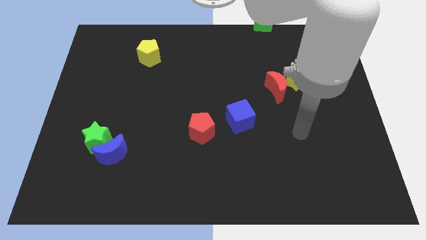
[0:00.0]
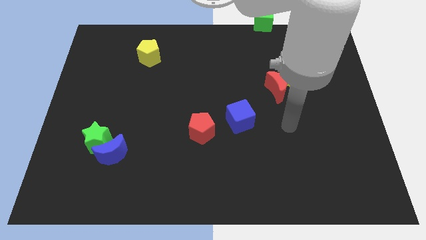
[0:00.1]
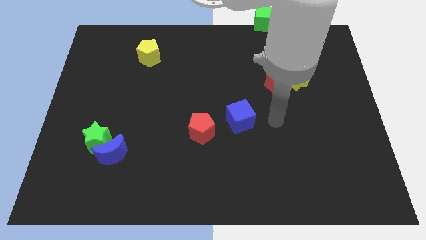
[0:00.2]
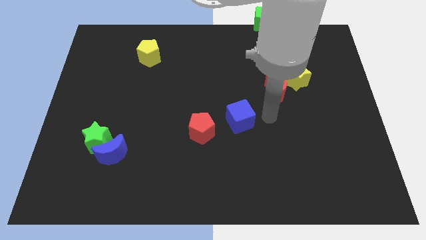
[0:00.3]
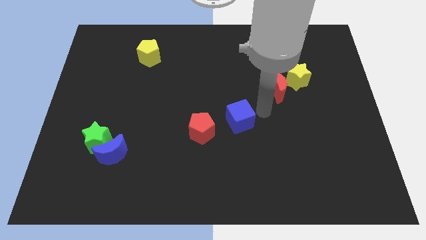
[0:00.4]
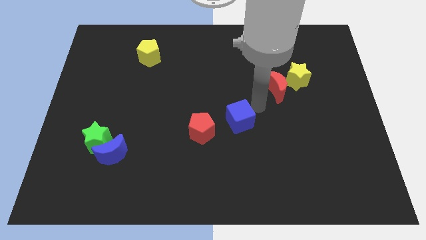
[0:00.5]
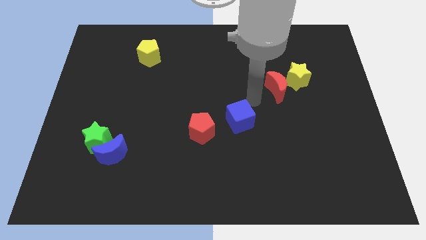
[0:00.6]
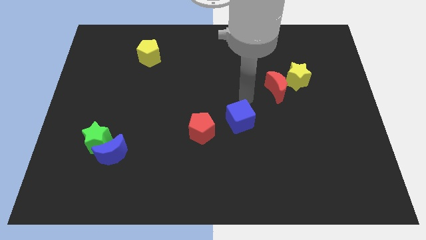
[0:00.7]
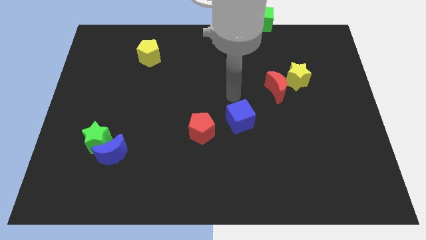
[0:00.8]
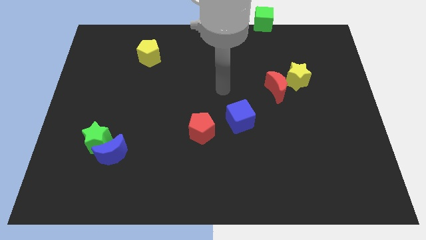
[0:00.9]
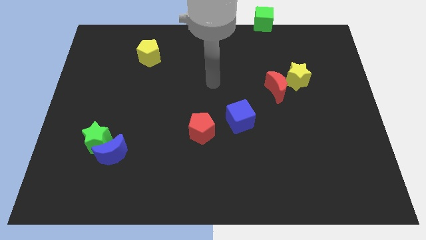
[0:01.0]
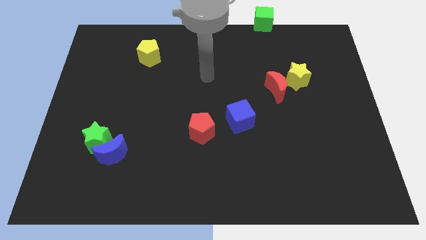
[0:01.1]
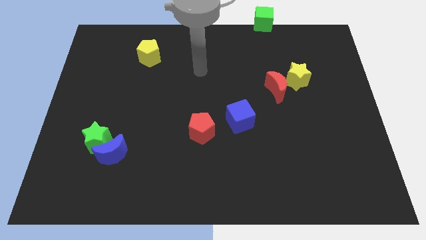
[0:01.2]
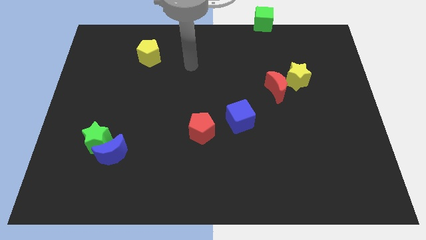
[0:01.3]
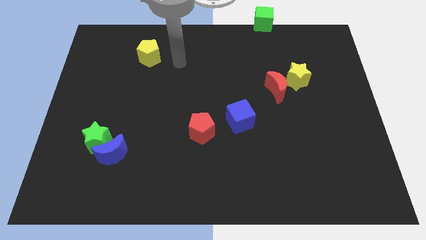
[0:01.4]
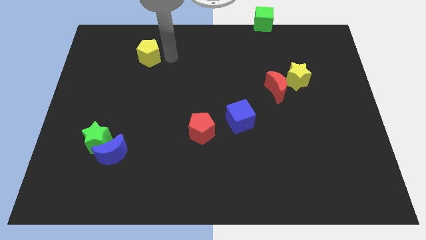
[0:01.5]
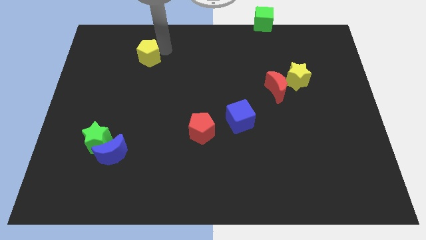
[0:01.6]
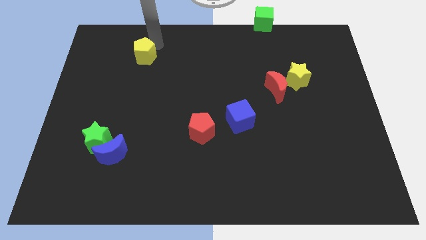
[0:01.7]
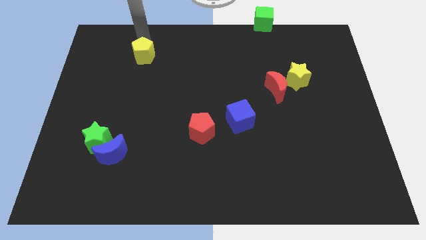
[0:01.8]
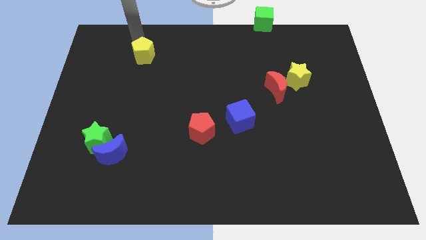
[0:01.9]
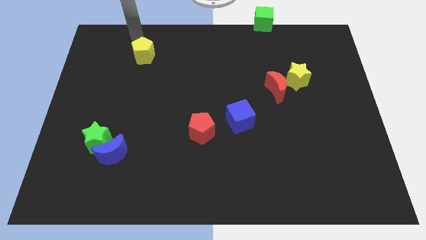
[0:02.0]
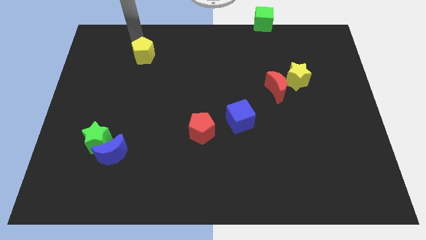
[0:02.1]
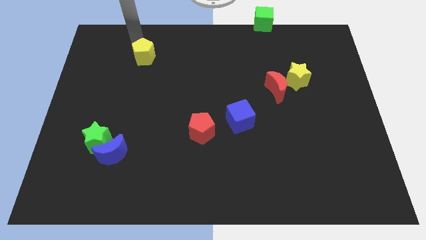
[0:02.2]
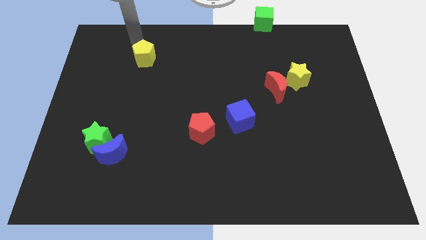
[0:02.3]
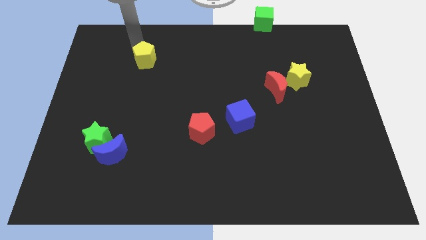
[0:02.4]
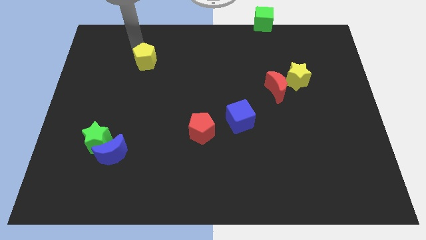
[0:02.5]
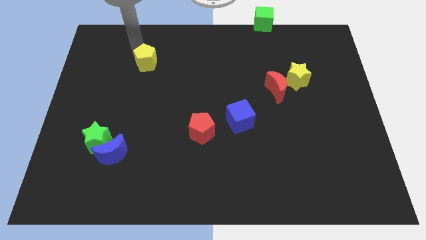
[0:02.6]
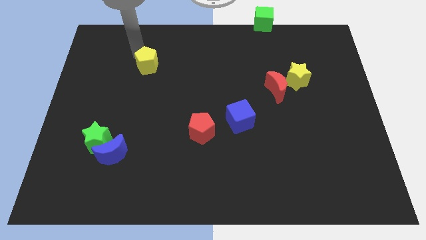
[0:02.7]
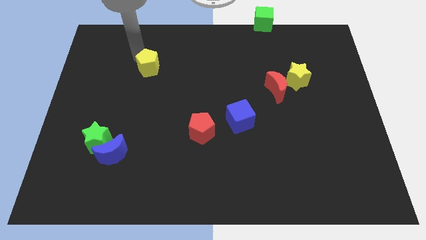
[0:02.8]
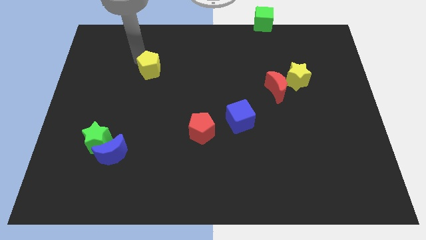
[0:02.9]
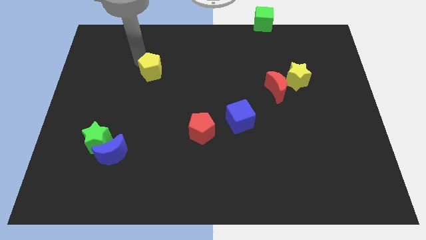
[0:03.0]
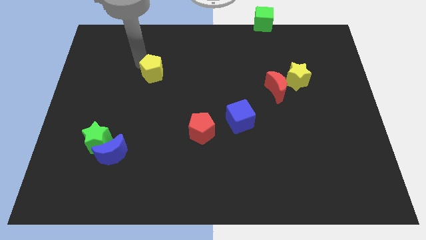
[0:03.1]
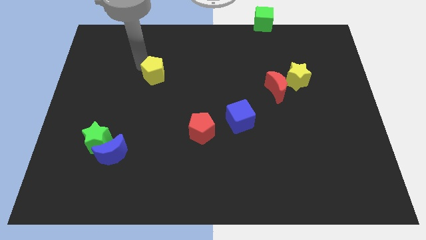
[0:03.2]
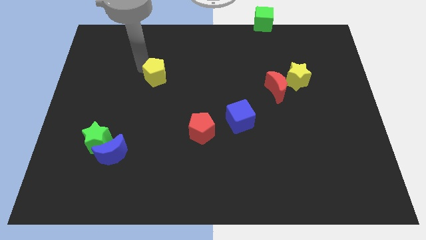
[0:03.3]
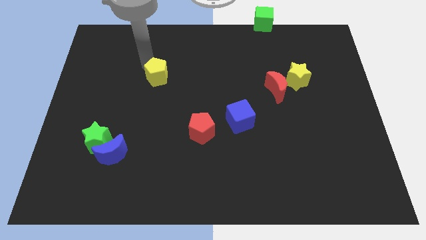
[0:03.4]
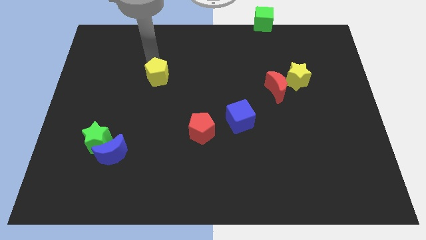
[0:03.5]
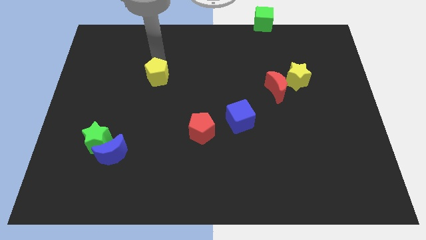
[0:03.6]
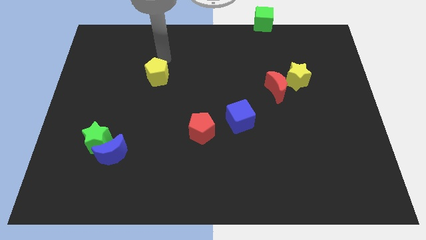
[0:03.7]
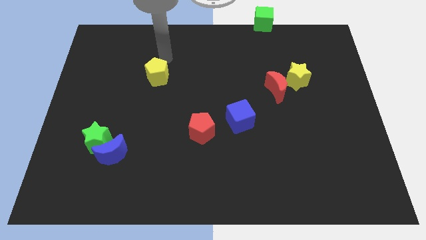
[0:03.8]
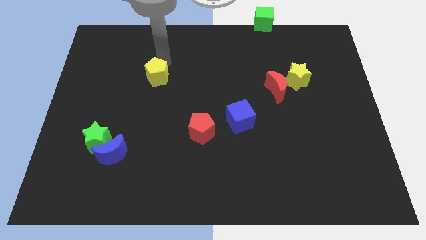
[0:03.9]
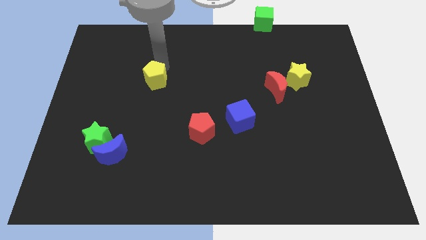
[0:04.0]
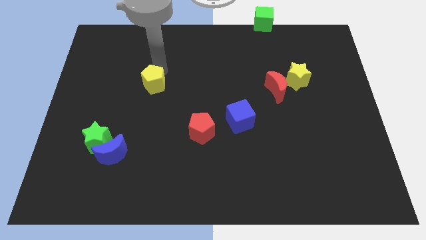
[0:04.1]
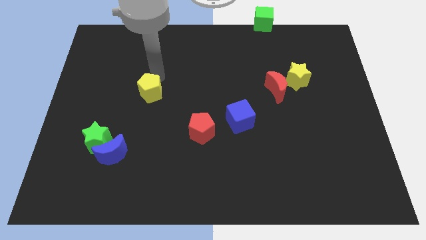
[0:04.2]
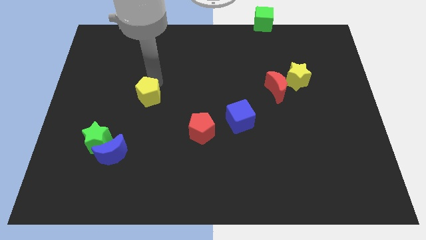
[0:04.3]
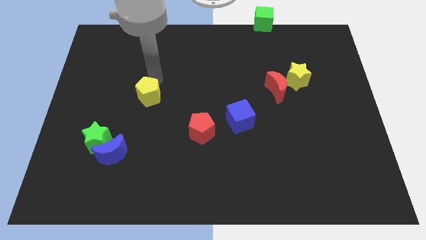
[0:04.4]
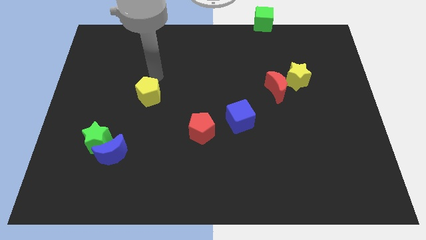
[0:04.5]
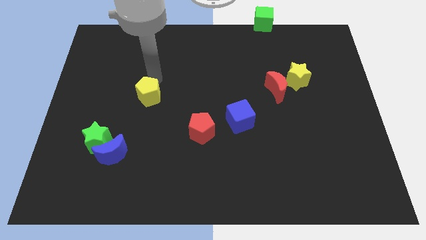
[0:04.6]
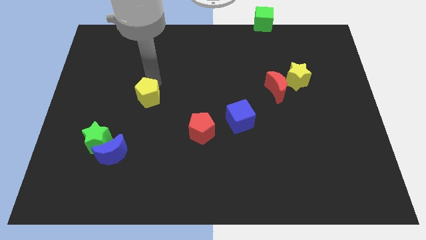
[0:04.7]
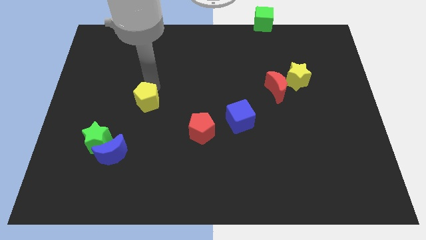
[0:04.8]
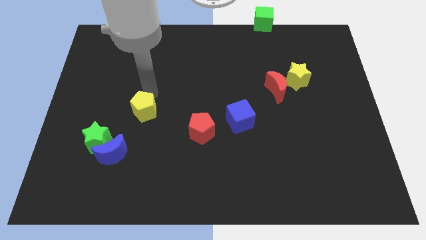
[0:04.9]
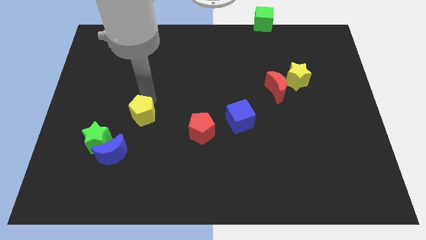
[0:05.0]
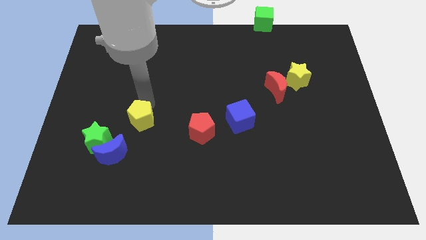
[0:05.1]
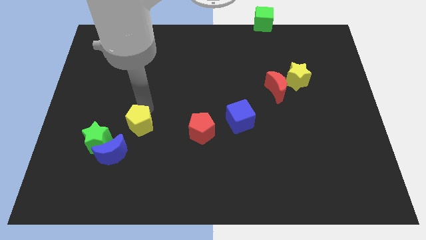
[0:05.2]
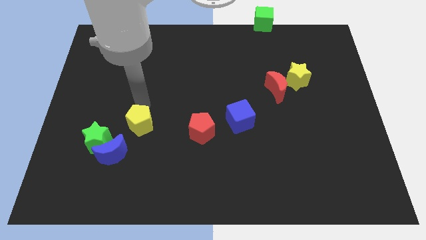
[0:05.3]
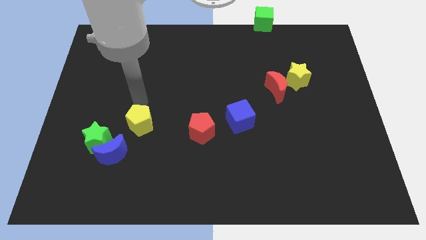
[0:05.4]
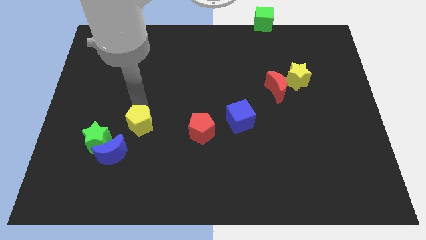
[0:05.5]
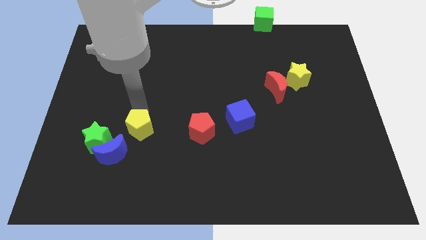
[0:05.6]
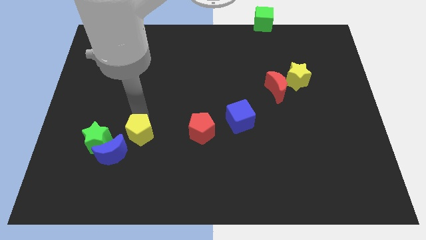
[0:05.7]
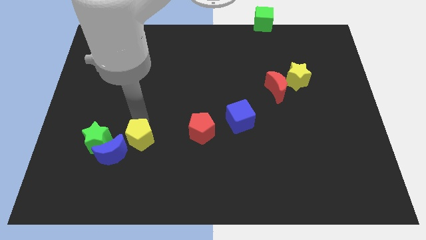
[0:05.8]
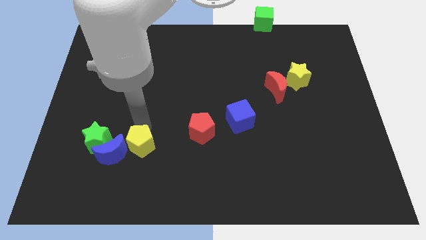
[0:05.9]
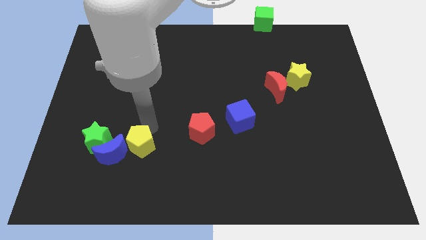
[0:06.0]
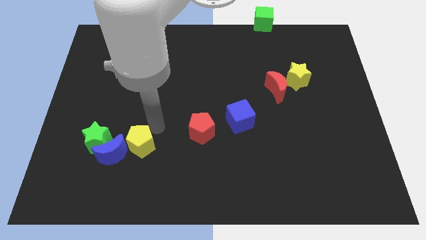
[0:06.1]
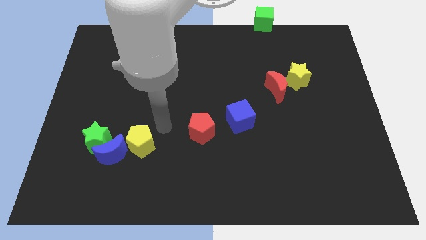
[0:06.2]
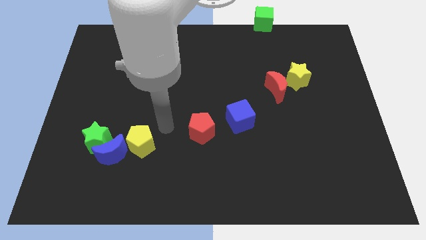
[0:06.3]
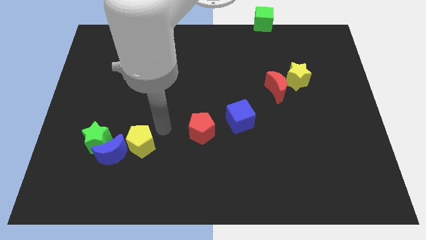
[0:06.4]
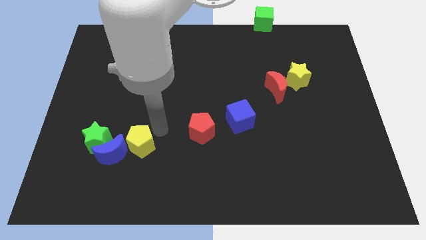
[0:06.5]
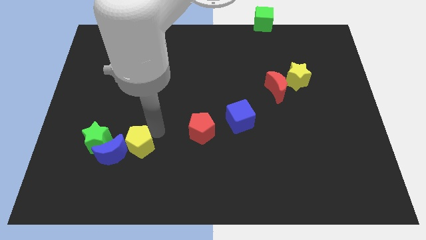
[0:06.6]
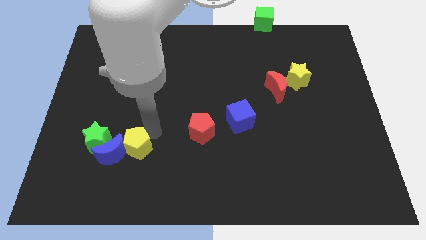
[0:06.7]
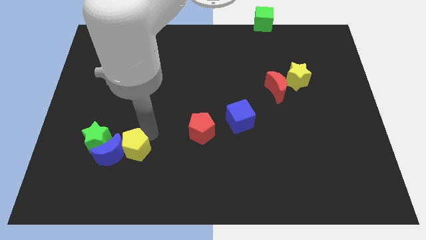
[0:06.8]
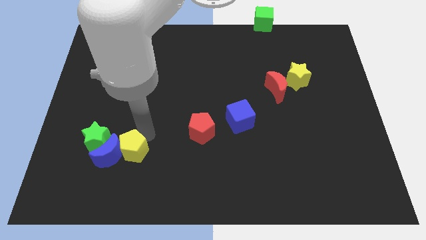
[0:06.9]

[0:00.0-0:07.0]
slide the yellow pentagon to the bottom right of the green star
